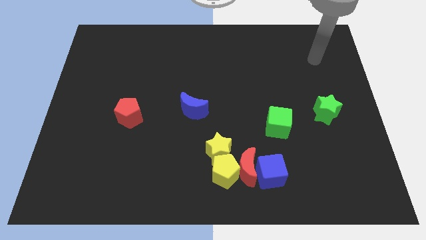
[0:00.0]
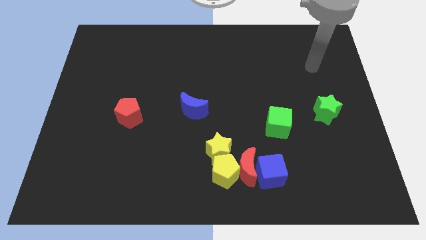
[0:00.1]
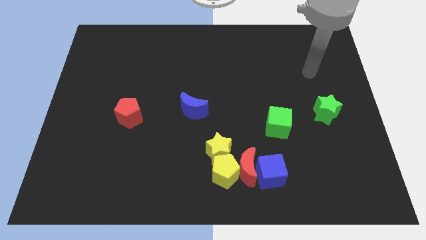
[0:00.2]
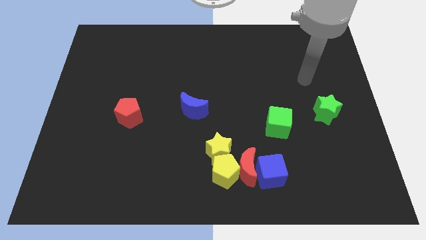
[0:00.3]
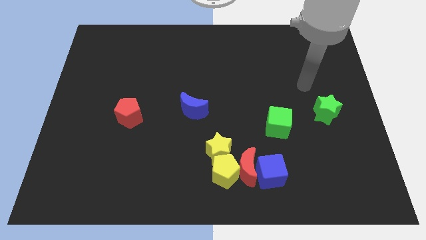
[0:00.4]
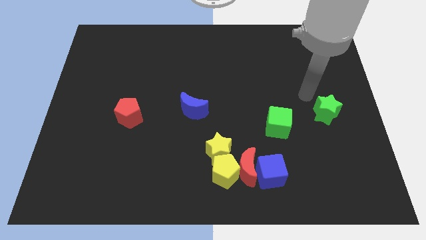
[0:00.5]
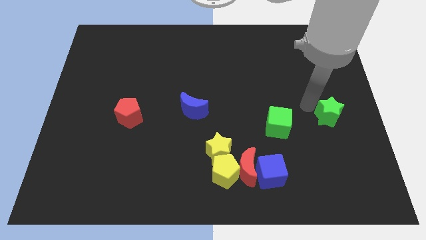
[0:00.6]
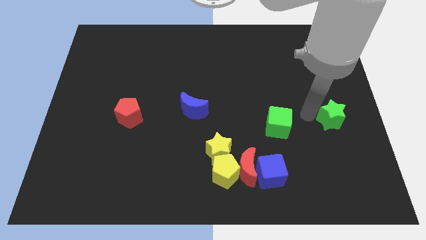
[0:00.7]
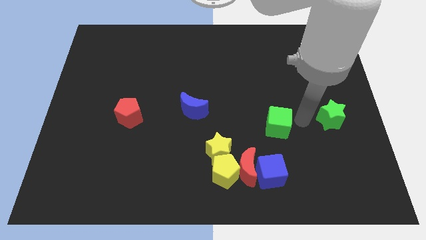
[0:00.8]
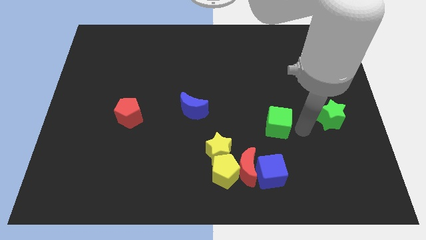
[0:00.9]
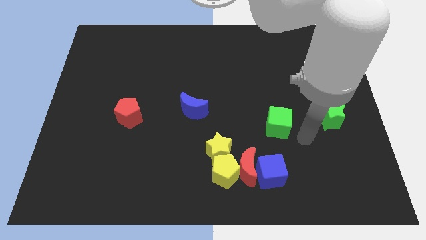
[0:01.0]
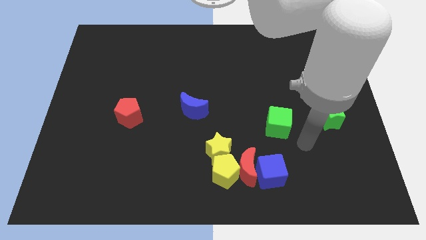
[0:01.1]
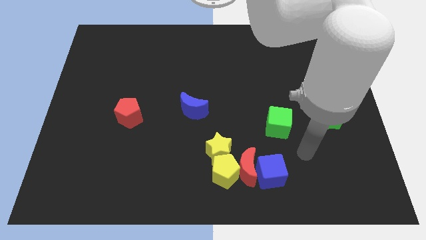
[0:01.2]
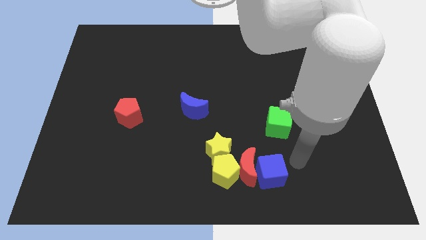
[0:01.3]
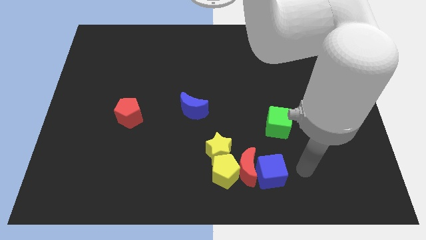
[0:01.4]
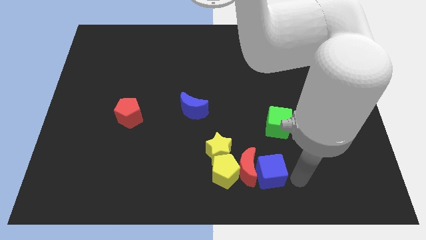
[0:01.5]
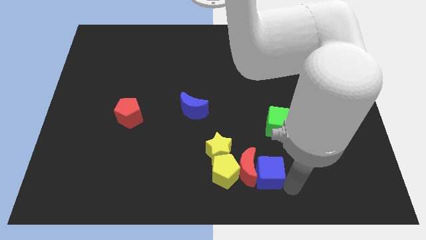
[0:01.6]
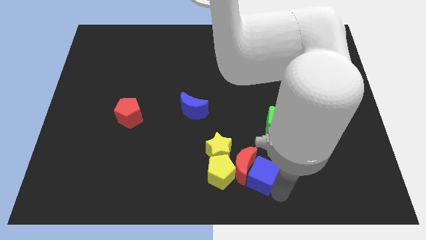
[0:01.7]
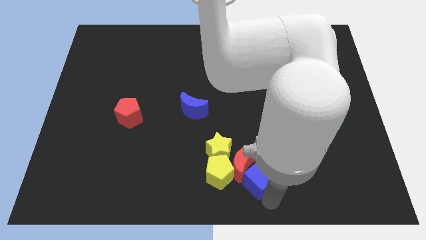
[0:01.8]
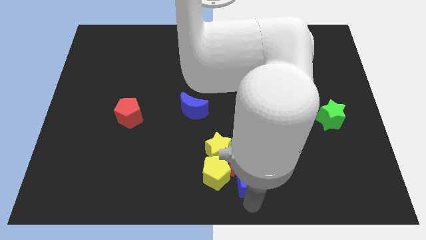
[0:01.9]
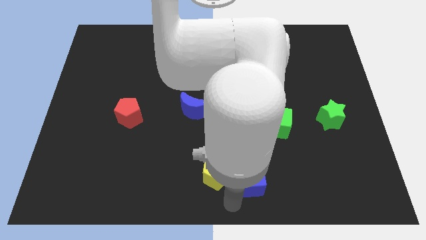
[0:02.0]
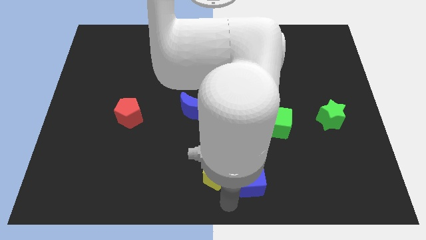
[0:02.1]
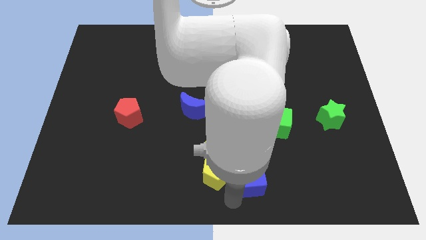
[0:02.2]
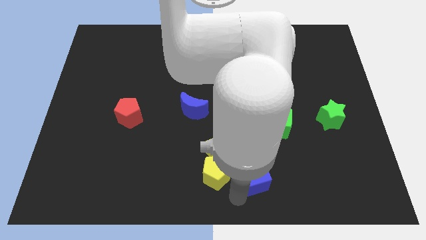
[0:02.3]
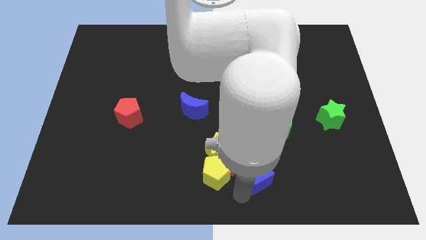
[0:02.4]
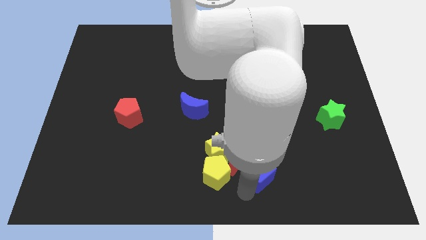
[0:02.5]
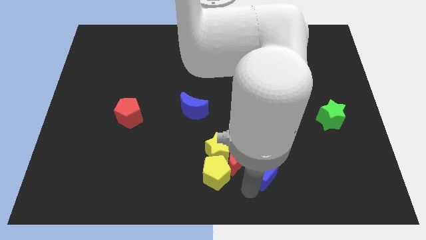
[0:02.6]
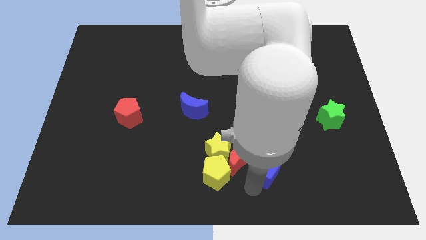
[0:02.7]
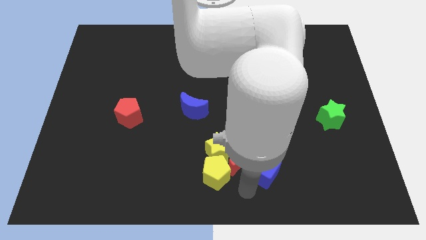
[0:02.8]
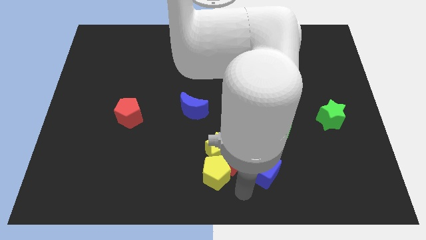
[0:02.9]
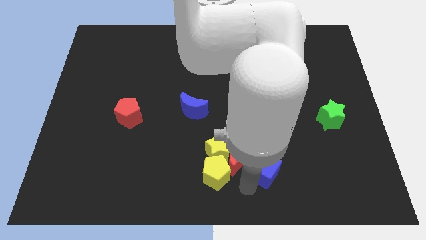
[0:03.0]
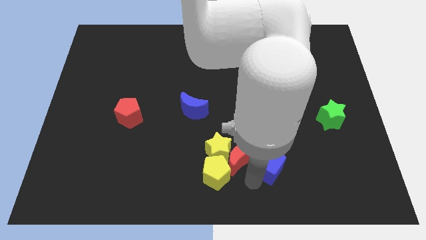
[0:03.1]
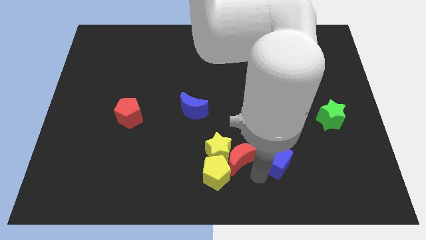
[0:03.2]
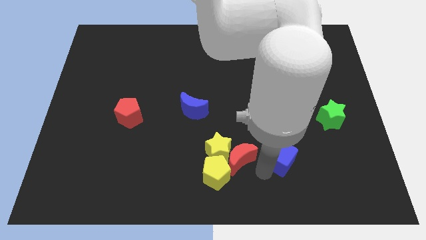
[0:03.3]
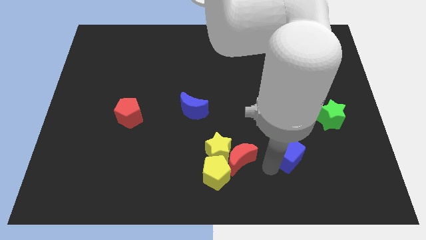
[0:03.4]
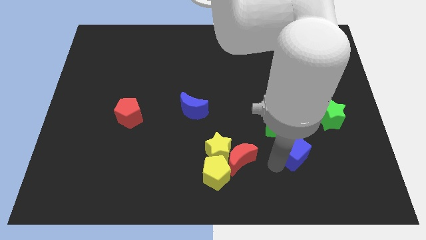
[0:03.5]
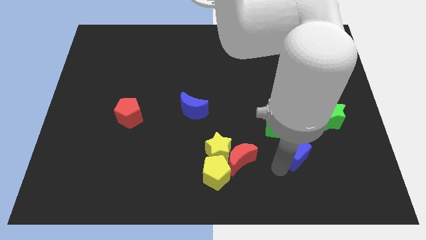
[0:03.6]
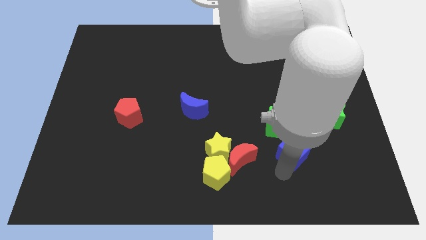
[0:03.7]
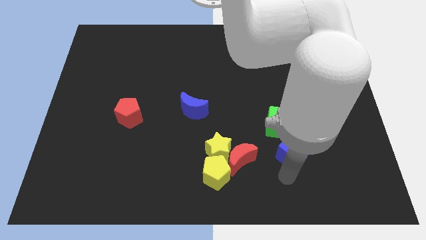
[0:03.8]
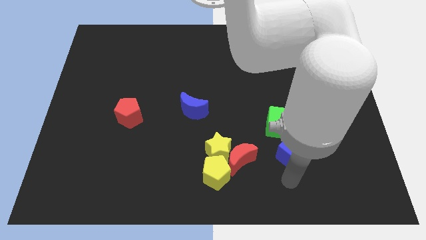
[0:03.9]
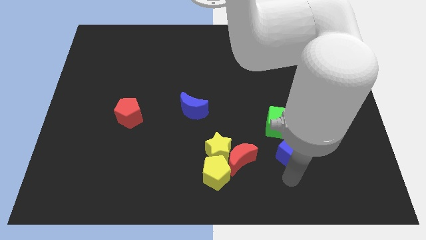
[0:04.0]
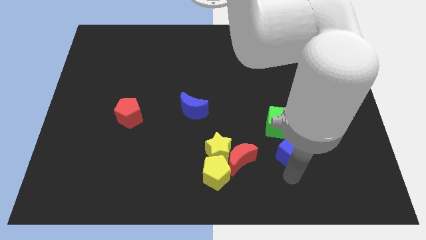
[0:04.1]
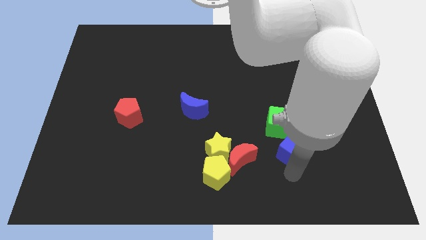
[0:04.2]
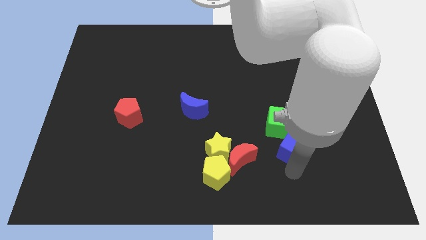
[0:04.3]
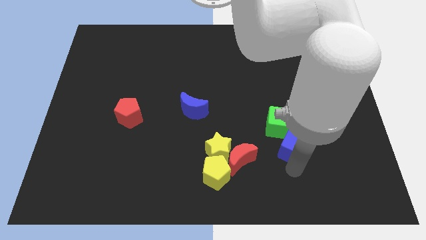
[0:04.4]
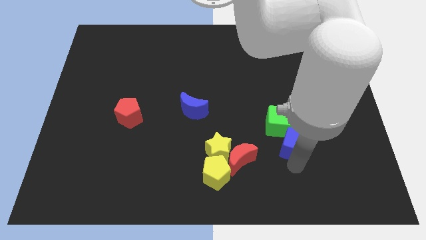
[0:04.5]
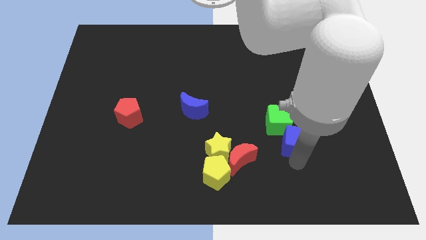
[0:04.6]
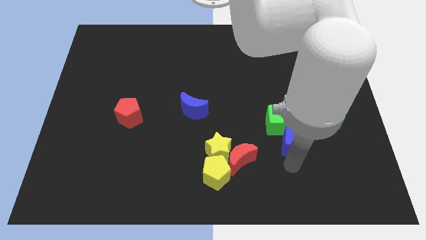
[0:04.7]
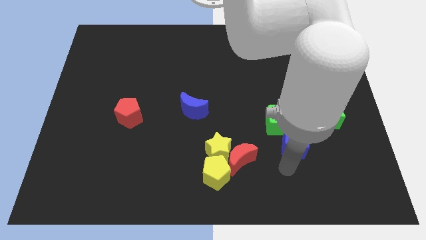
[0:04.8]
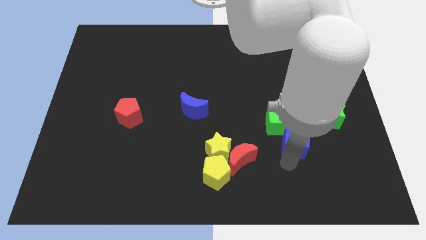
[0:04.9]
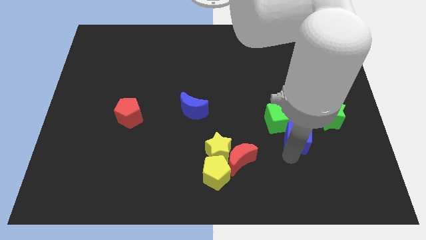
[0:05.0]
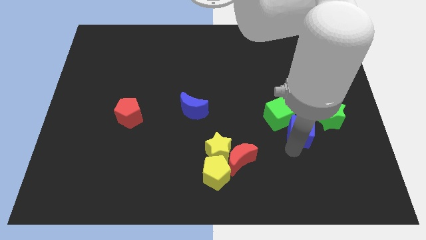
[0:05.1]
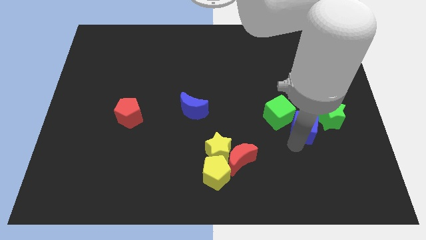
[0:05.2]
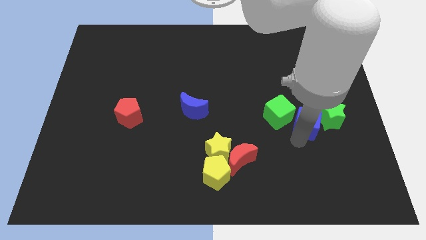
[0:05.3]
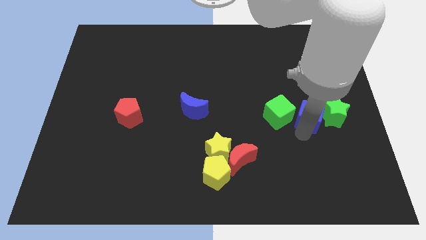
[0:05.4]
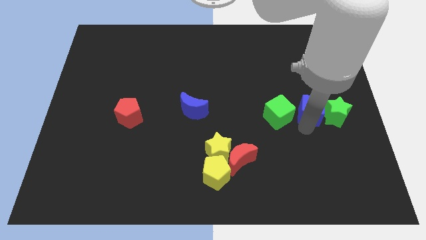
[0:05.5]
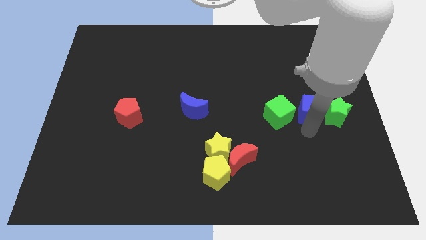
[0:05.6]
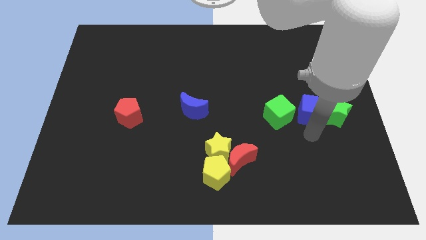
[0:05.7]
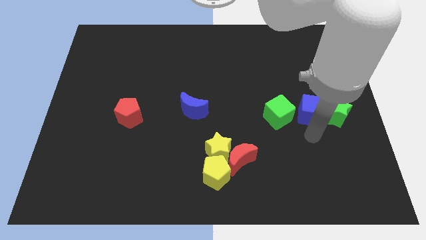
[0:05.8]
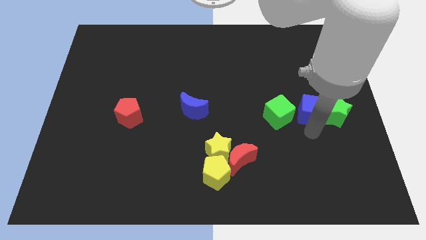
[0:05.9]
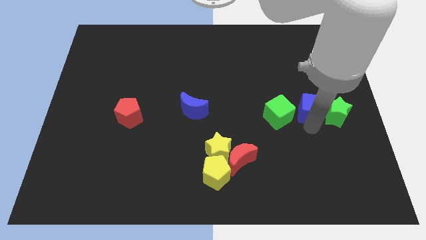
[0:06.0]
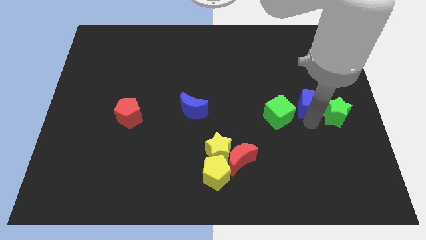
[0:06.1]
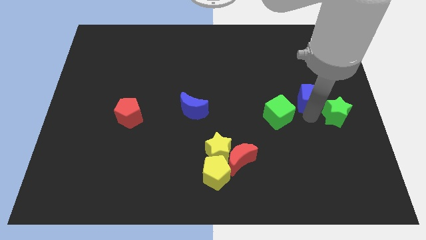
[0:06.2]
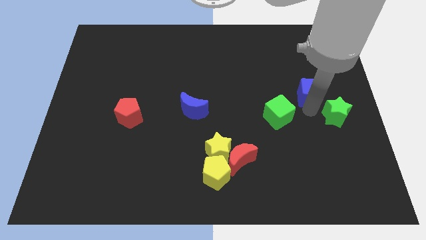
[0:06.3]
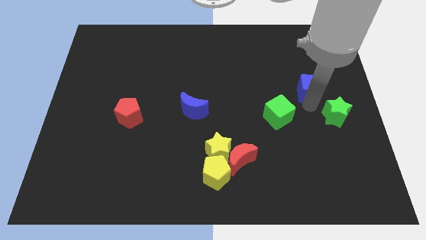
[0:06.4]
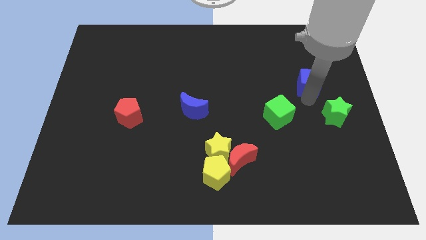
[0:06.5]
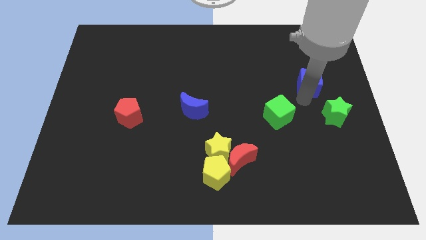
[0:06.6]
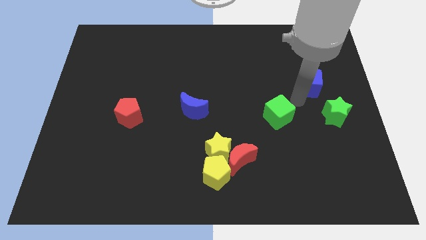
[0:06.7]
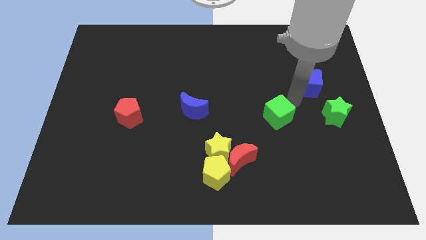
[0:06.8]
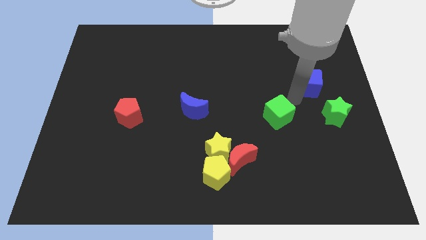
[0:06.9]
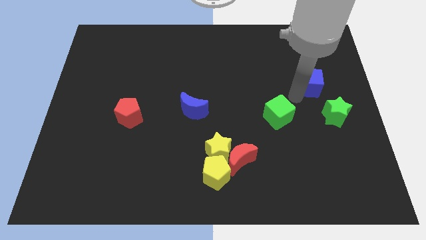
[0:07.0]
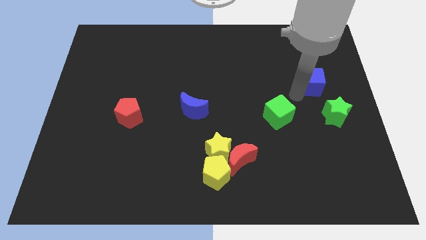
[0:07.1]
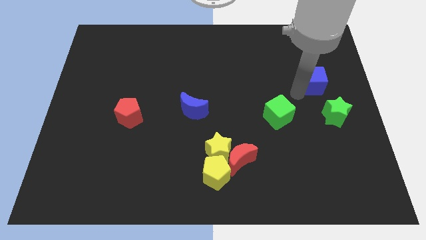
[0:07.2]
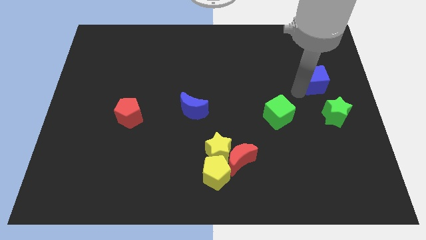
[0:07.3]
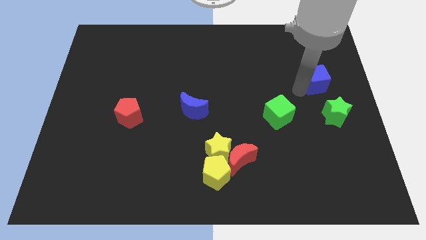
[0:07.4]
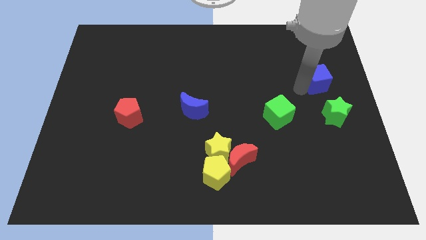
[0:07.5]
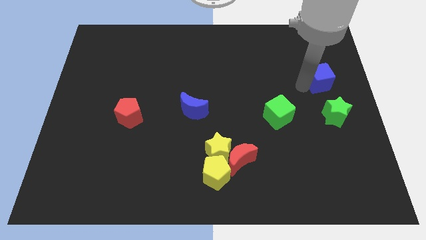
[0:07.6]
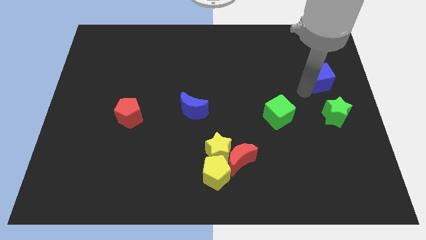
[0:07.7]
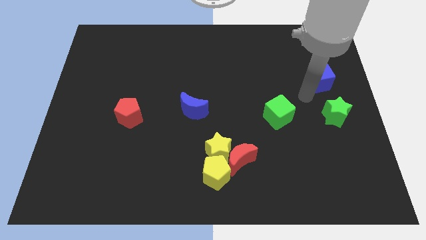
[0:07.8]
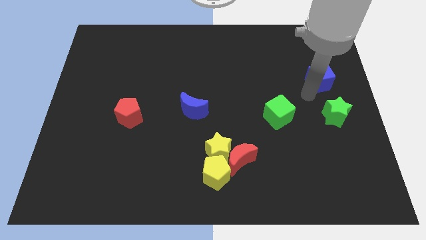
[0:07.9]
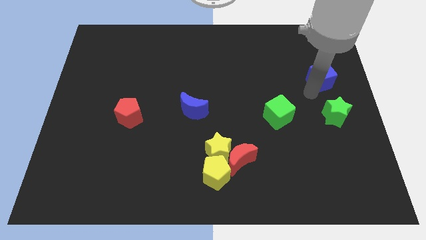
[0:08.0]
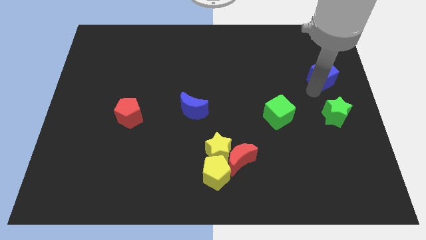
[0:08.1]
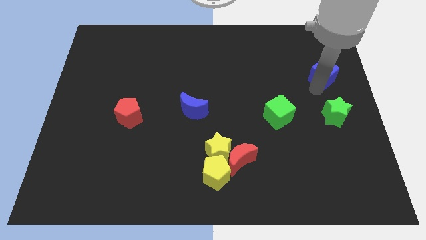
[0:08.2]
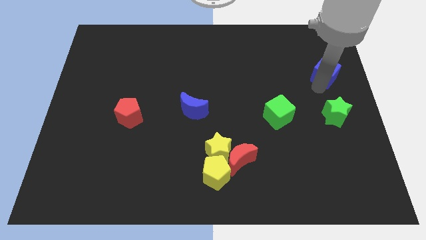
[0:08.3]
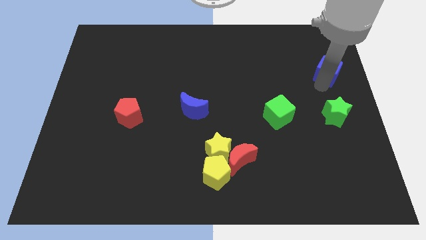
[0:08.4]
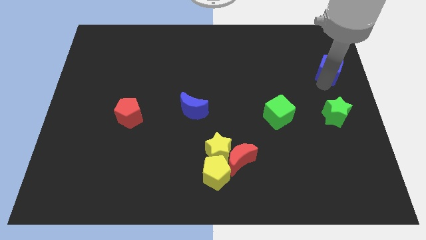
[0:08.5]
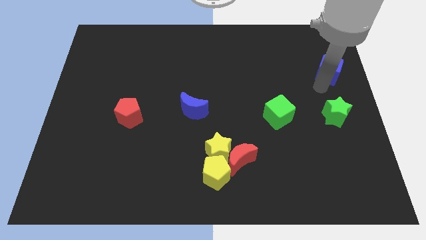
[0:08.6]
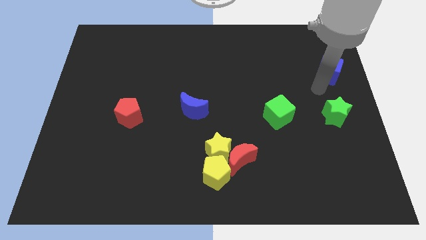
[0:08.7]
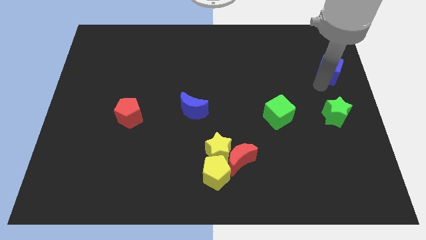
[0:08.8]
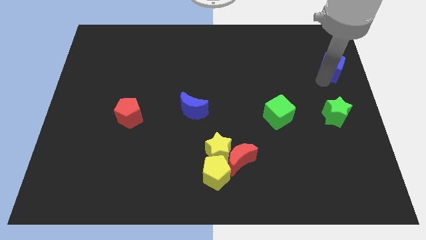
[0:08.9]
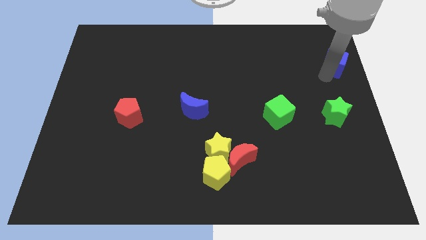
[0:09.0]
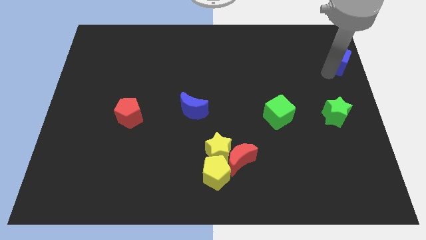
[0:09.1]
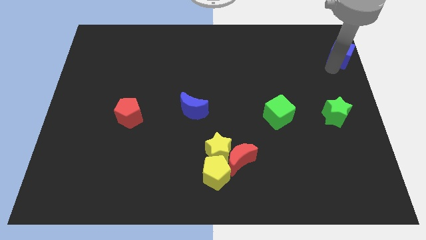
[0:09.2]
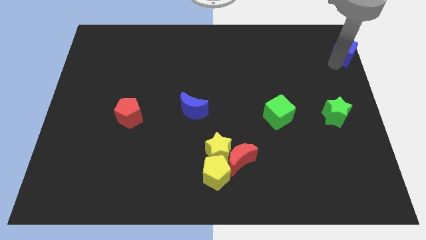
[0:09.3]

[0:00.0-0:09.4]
put the blue cube to the top right corner
